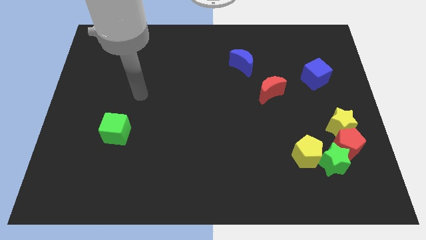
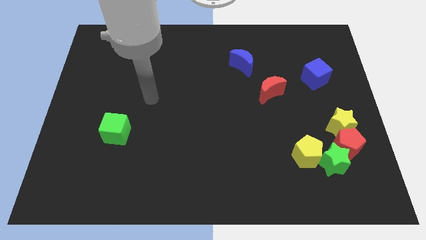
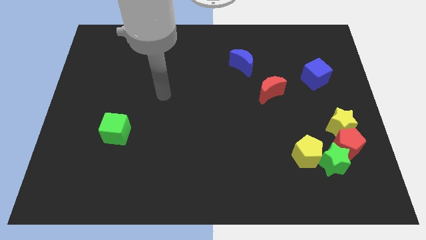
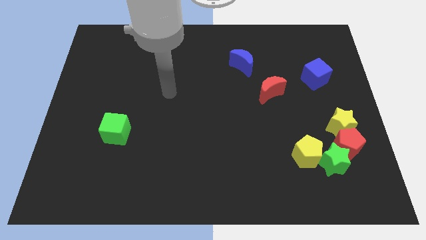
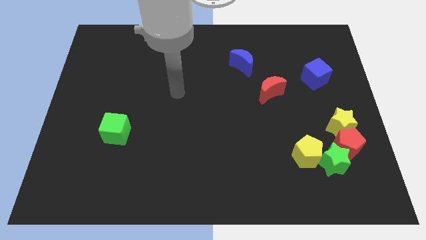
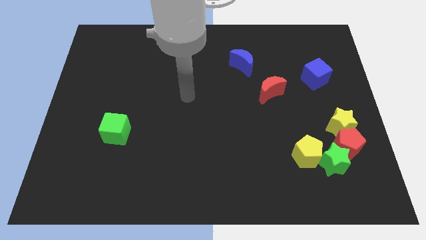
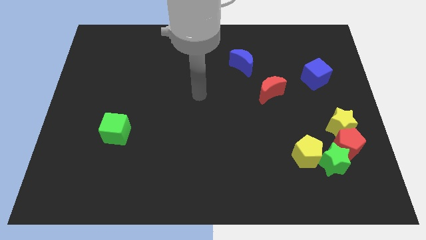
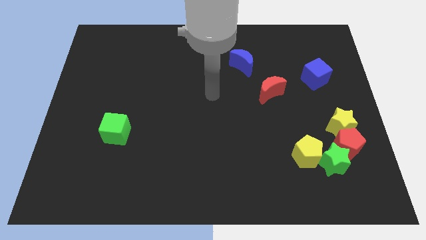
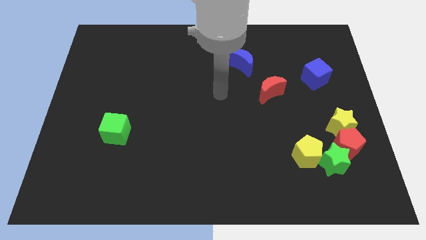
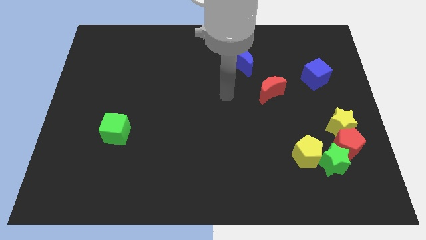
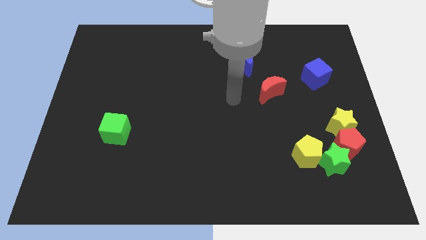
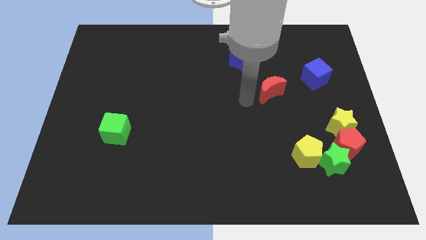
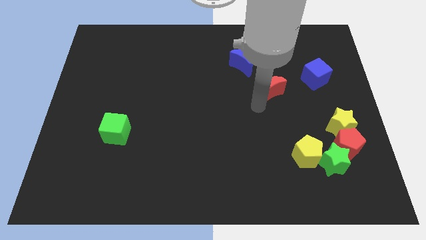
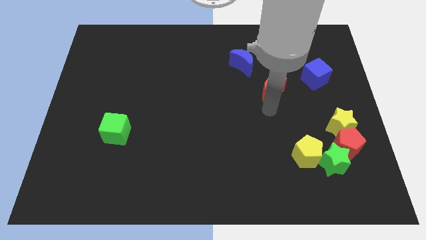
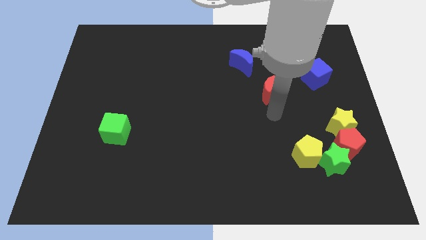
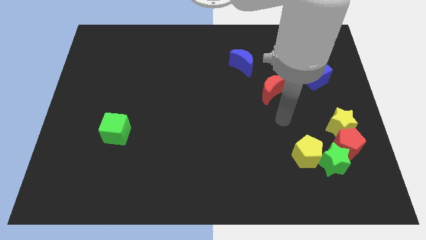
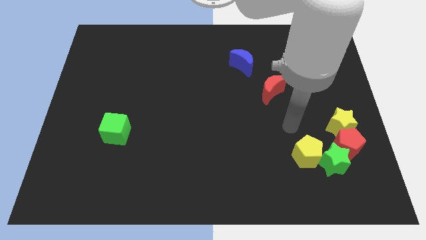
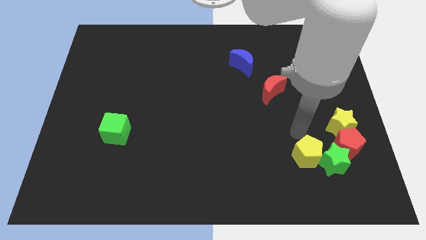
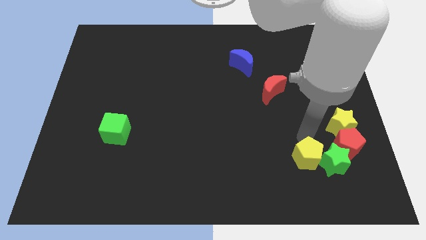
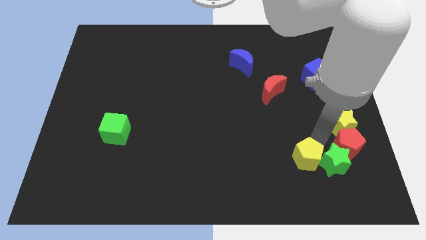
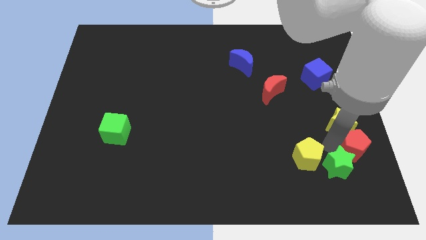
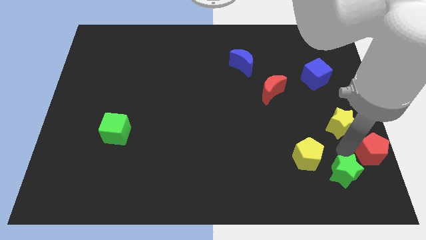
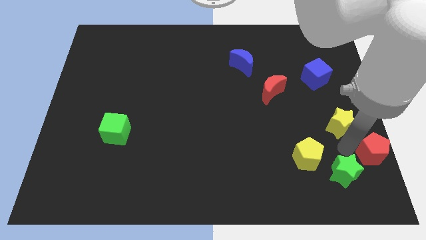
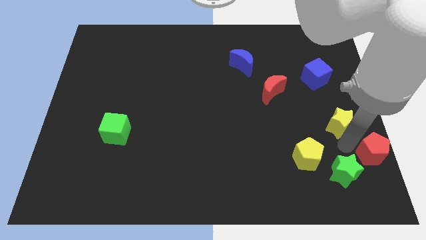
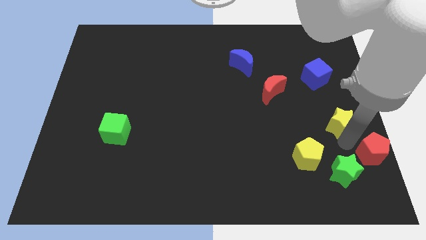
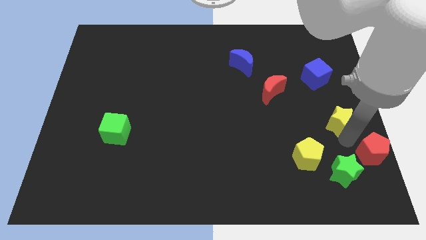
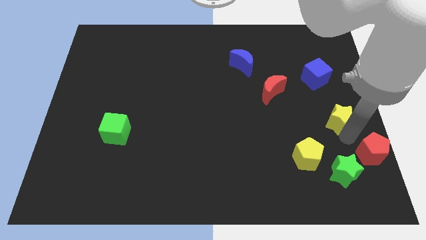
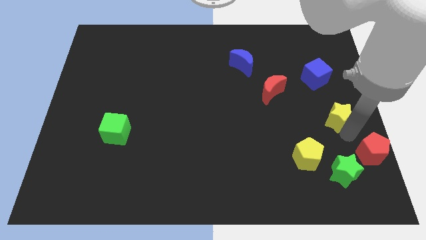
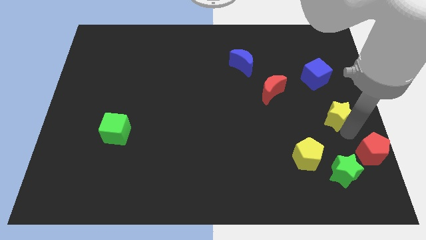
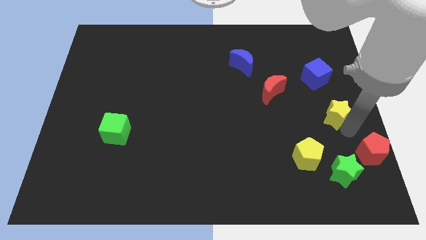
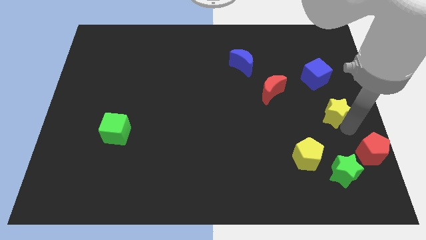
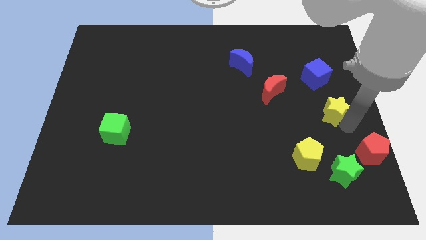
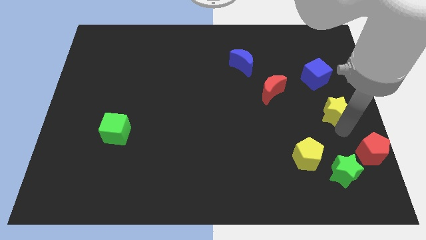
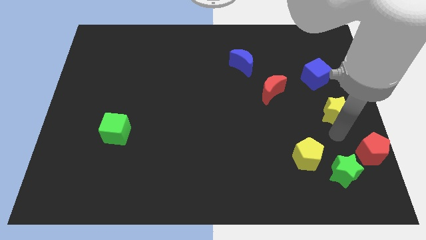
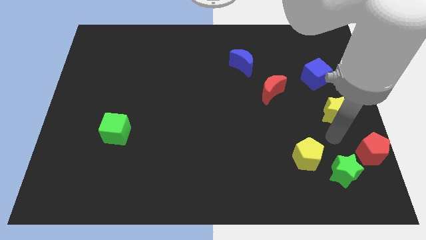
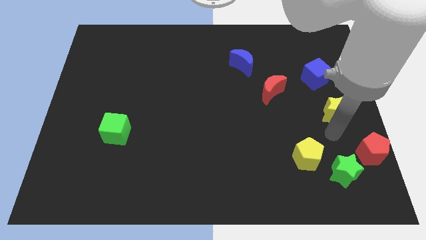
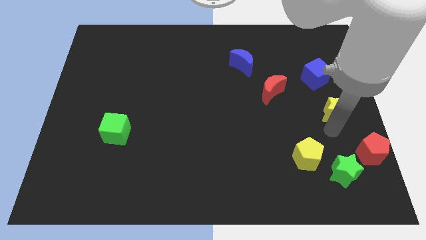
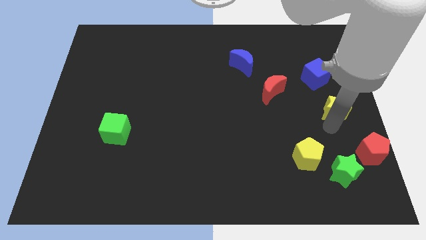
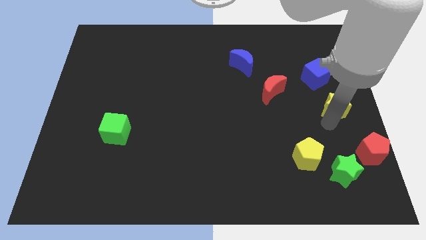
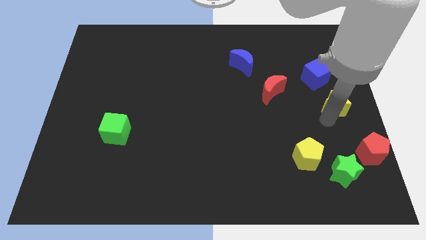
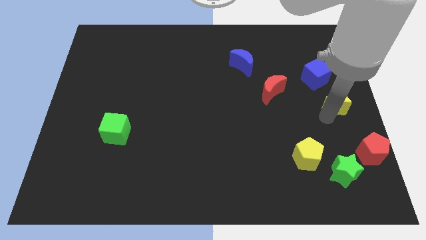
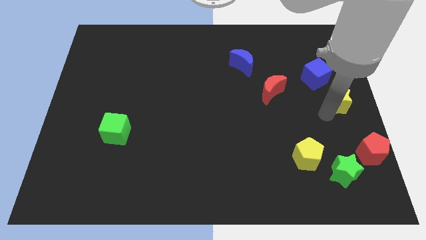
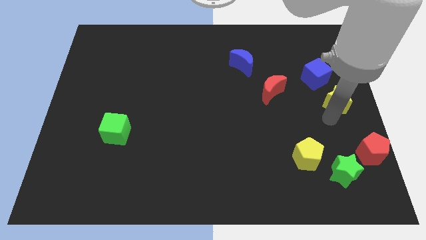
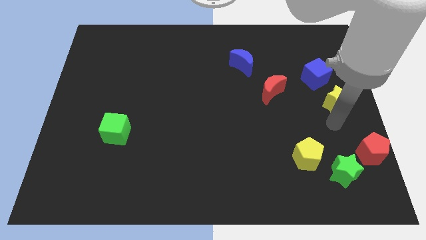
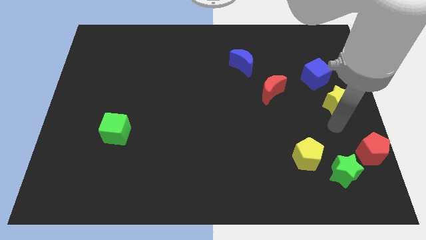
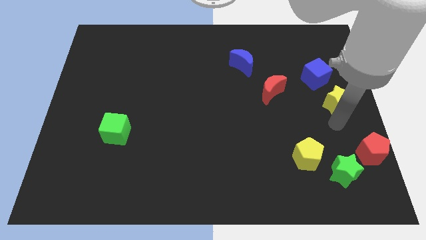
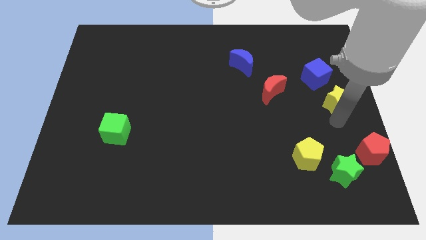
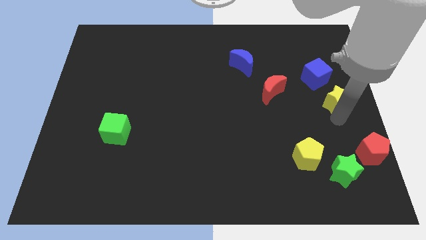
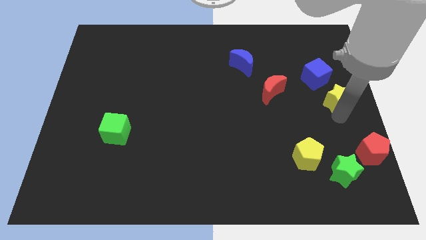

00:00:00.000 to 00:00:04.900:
slightly move the yellow star upwards

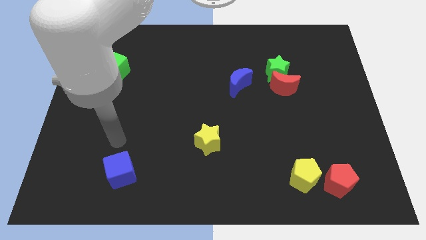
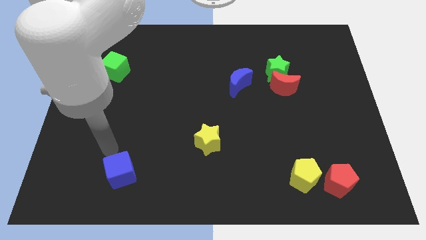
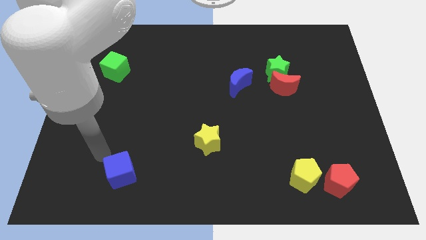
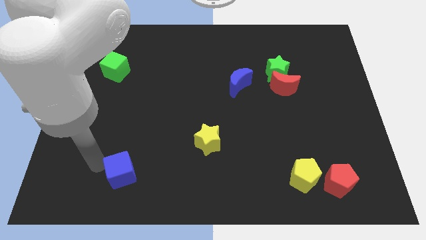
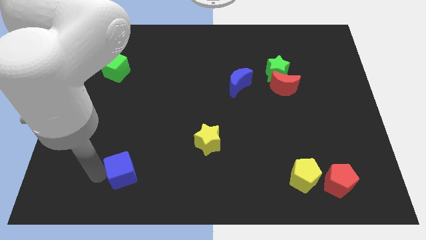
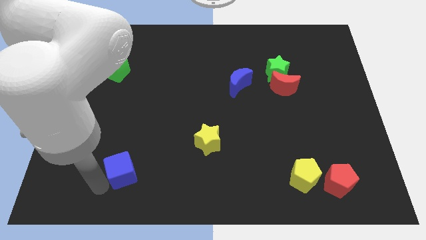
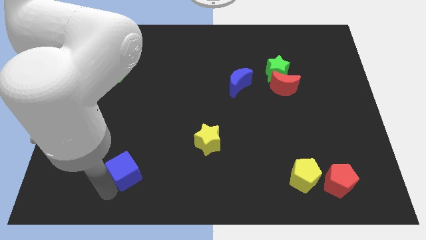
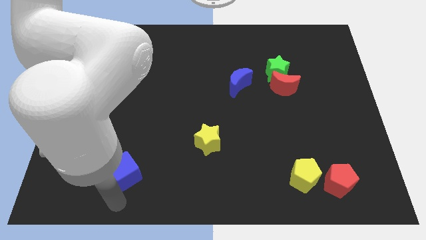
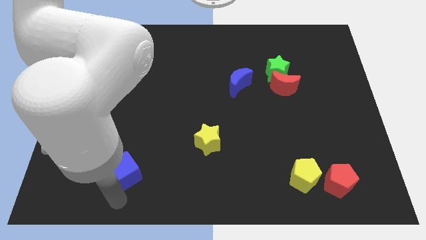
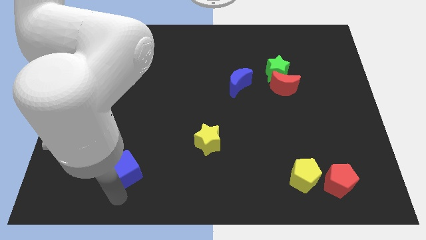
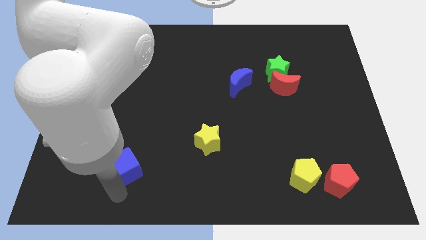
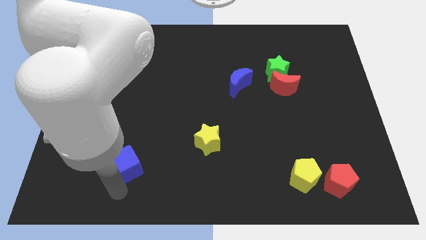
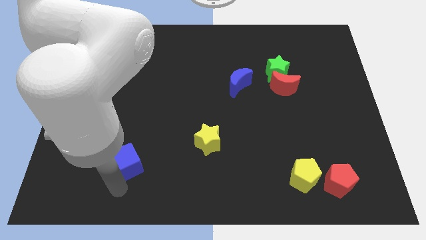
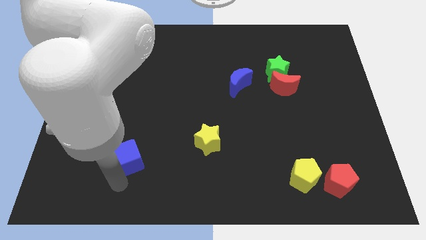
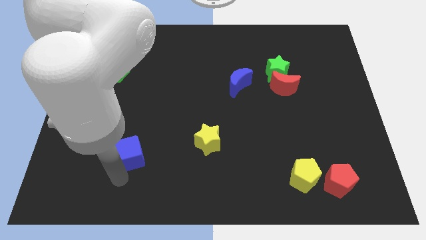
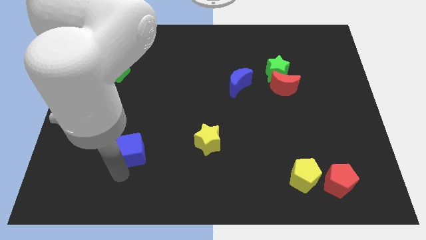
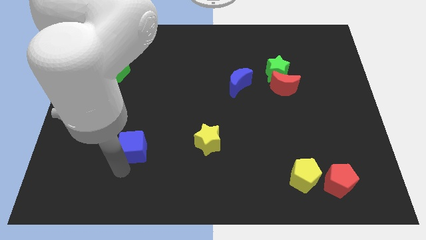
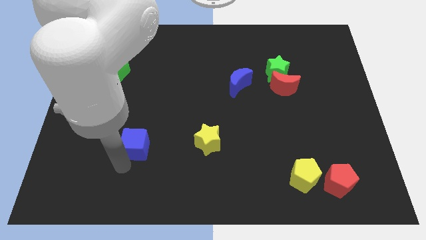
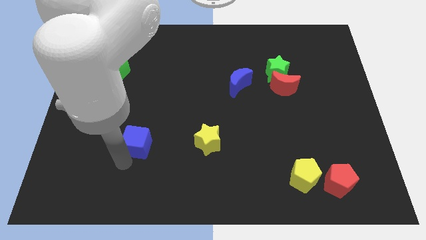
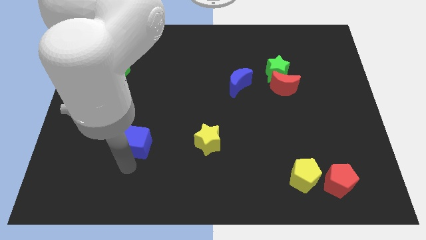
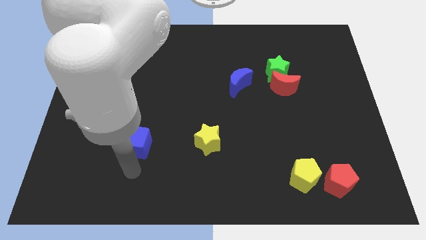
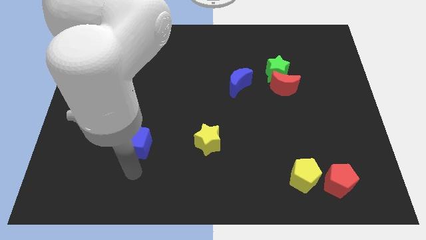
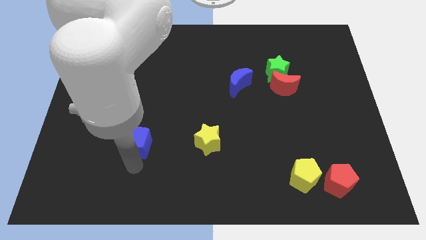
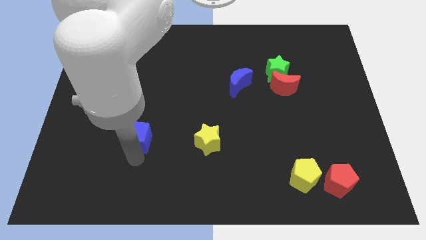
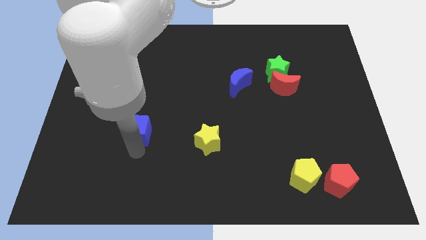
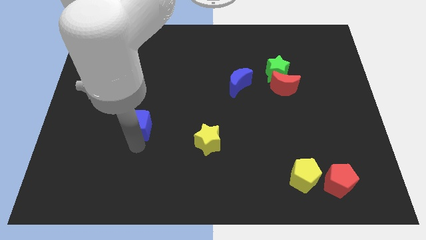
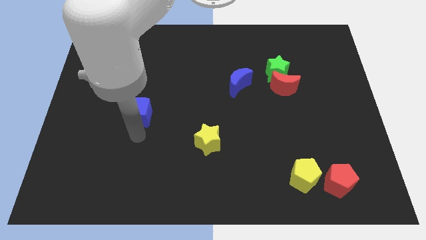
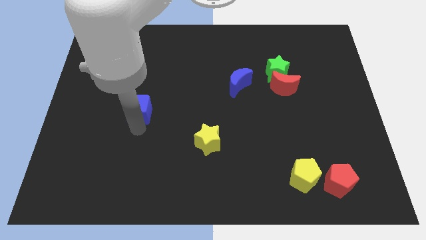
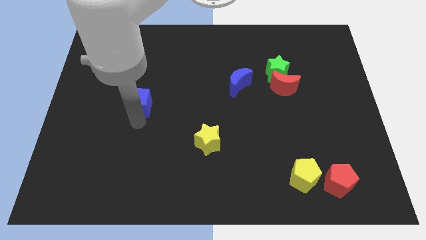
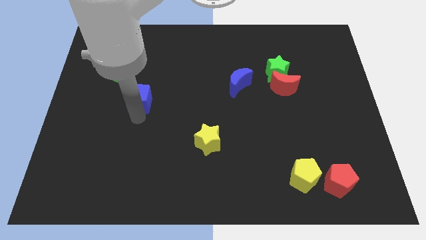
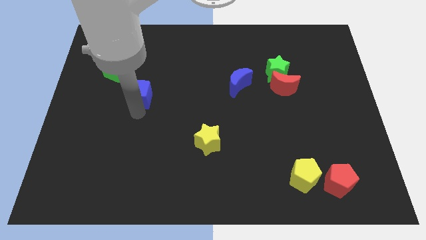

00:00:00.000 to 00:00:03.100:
push the blue cube upwards

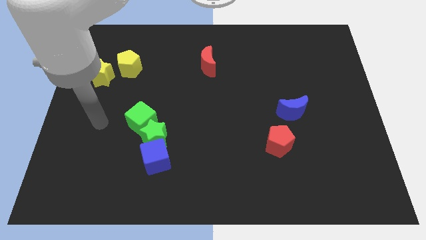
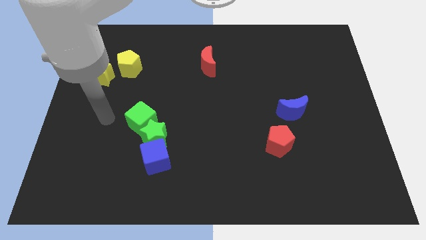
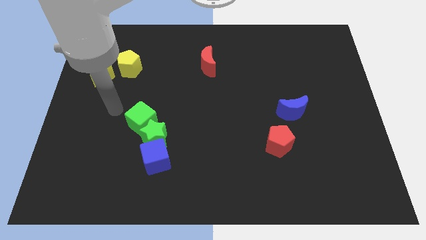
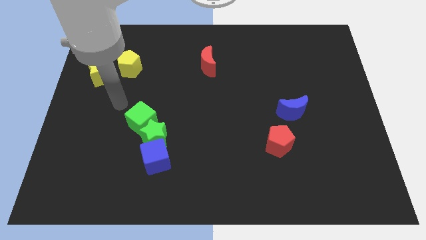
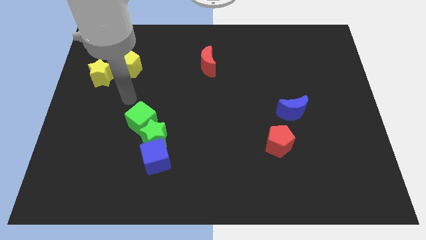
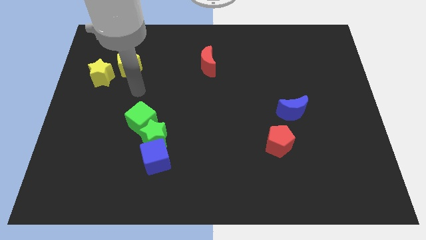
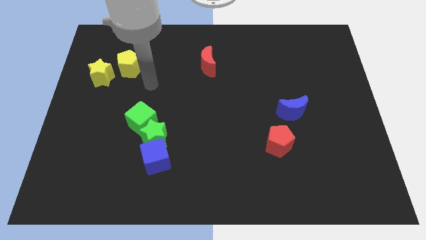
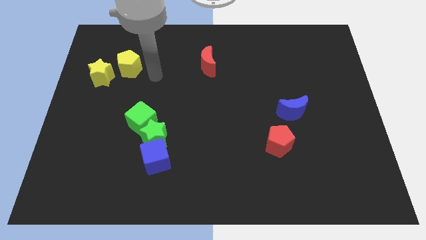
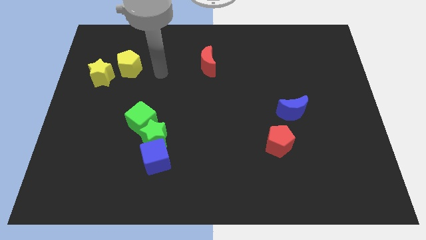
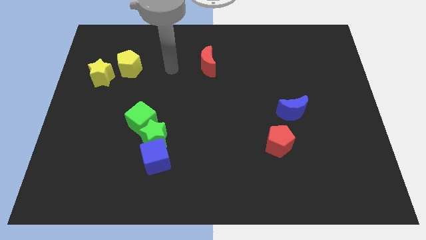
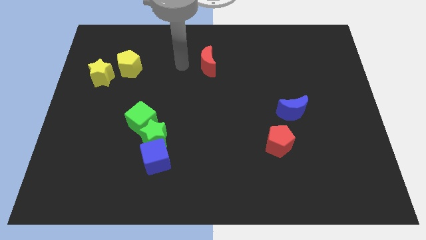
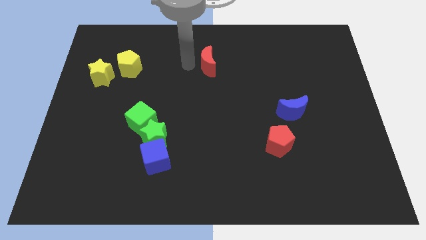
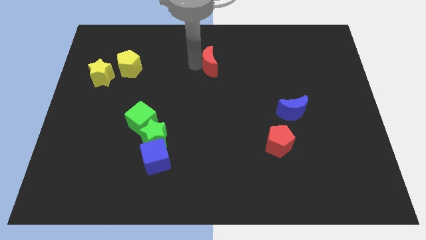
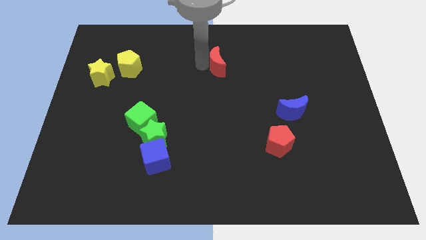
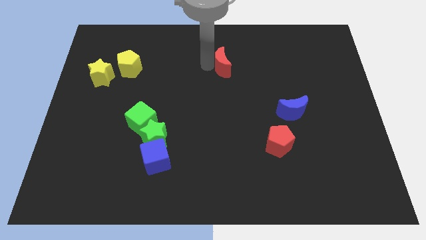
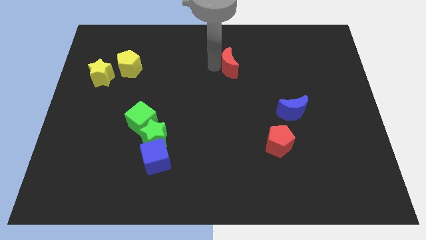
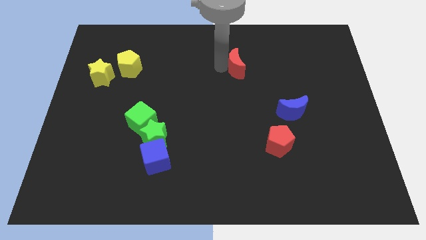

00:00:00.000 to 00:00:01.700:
slightly move the red moon right
